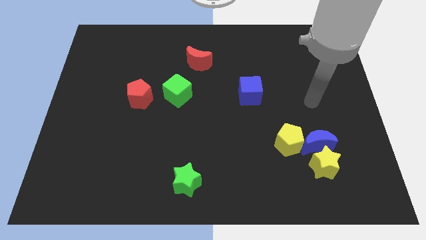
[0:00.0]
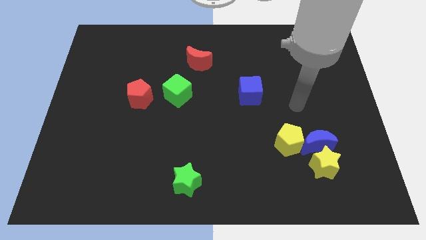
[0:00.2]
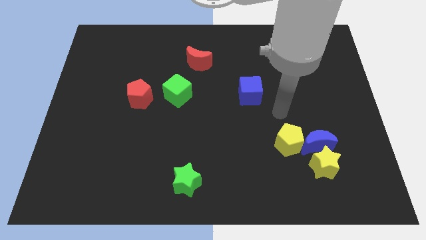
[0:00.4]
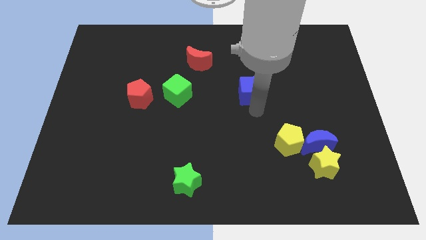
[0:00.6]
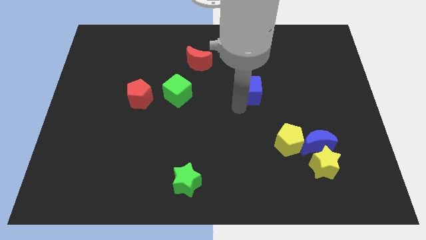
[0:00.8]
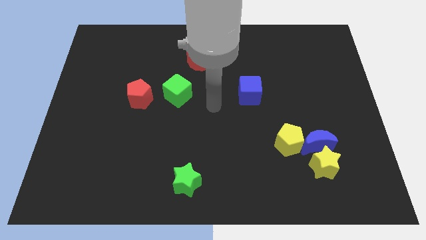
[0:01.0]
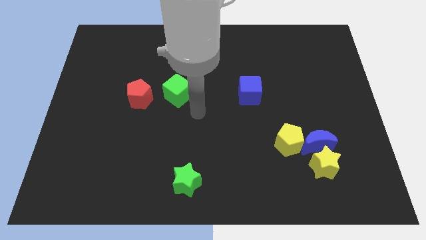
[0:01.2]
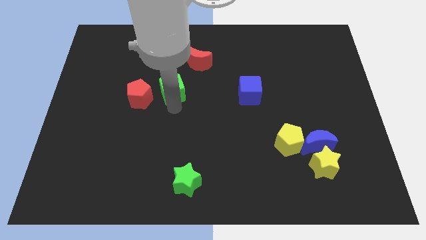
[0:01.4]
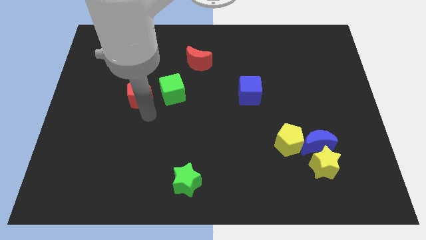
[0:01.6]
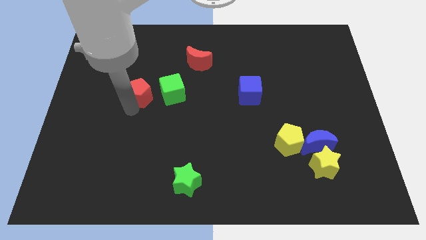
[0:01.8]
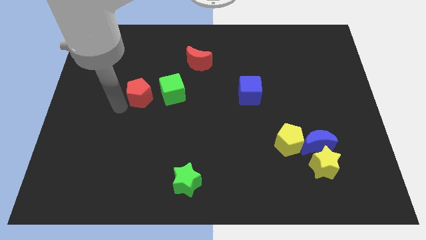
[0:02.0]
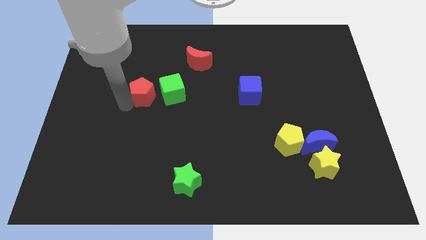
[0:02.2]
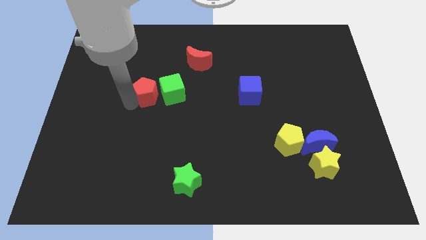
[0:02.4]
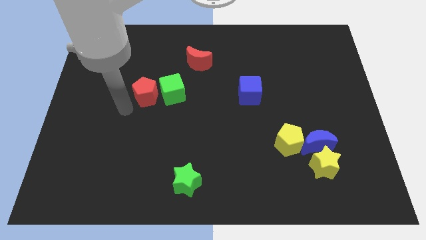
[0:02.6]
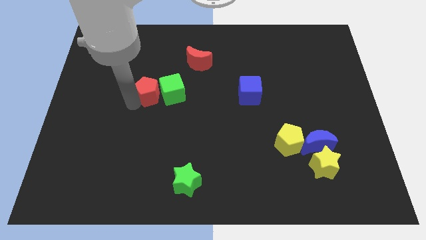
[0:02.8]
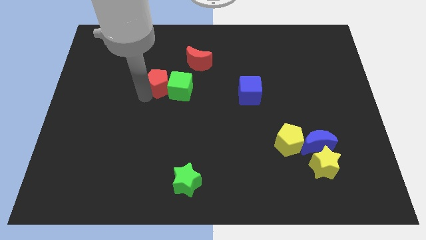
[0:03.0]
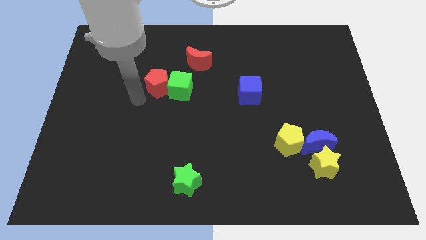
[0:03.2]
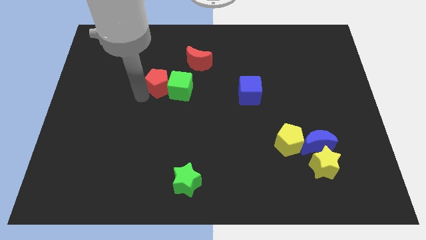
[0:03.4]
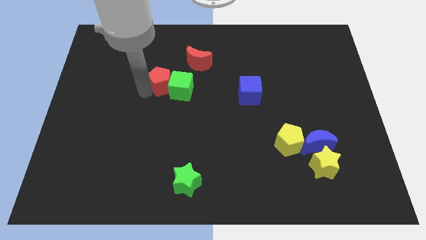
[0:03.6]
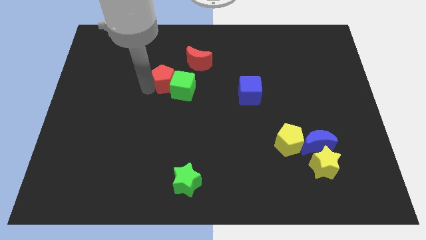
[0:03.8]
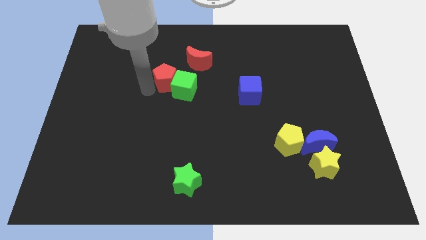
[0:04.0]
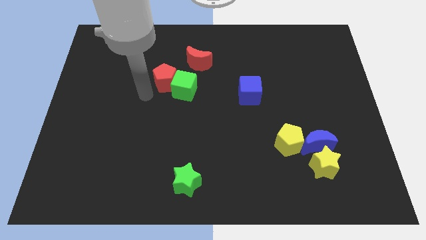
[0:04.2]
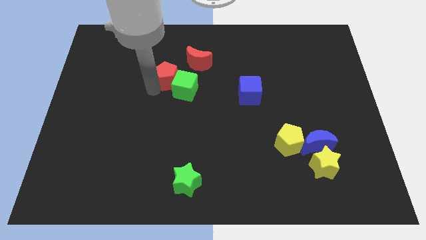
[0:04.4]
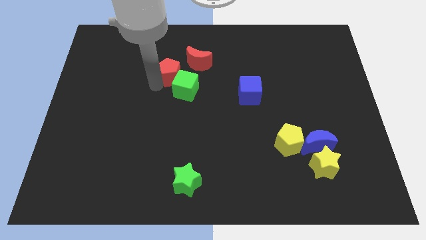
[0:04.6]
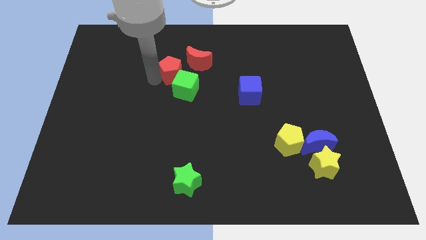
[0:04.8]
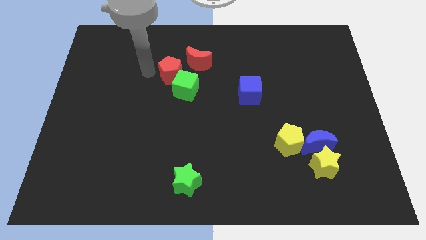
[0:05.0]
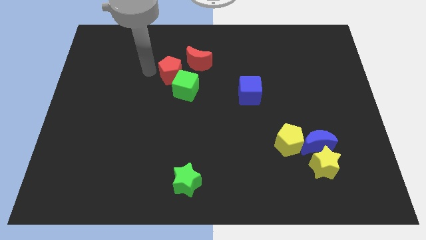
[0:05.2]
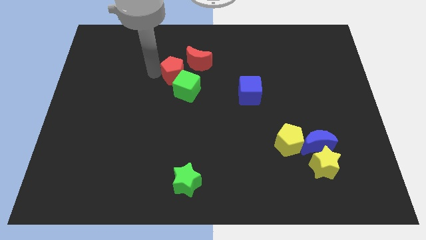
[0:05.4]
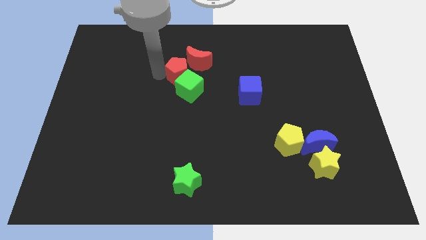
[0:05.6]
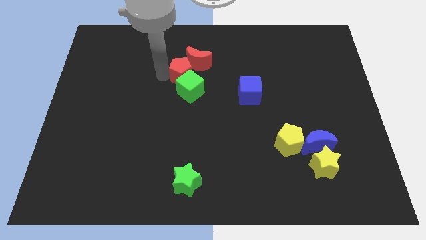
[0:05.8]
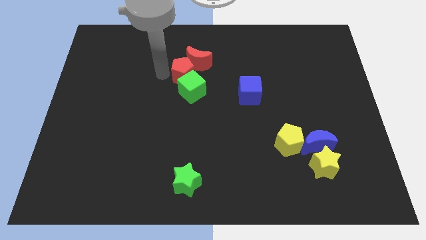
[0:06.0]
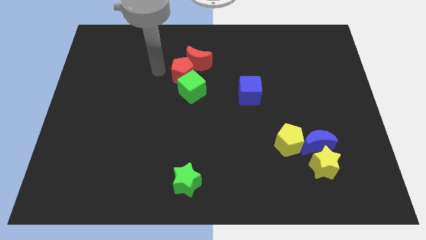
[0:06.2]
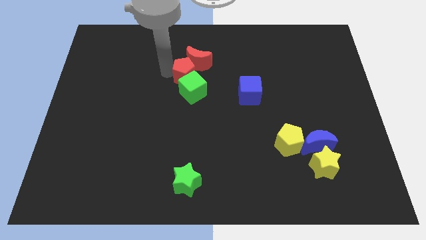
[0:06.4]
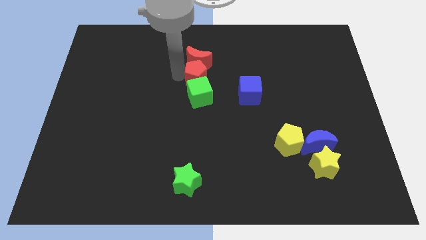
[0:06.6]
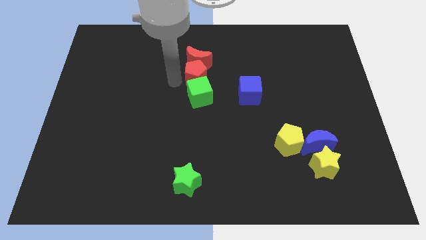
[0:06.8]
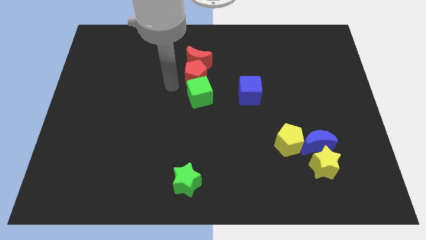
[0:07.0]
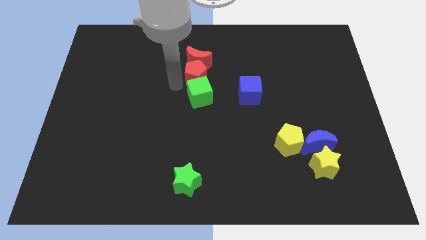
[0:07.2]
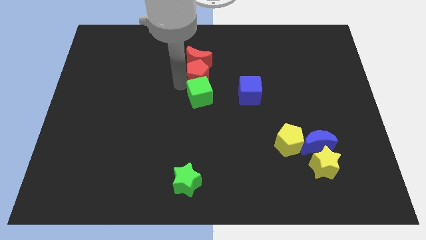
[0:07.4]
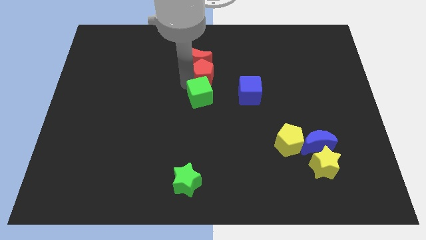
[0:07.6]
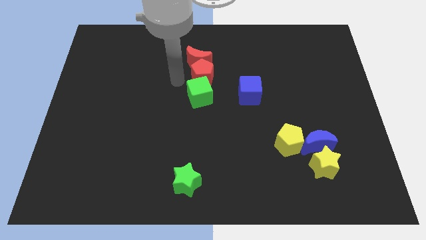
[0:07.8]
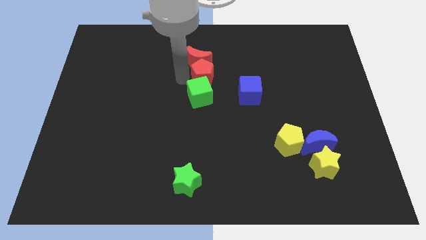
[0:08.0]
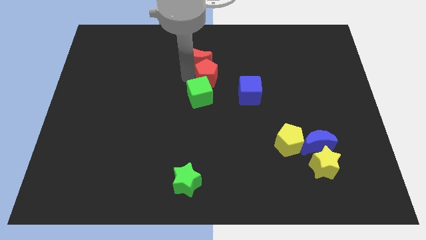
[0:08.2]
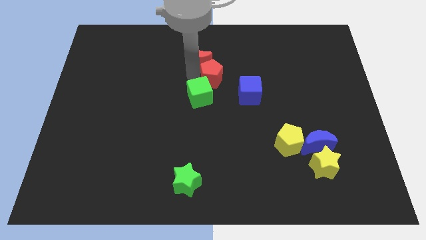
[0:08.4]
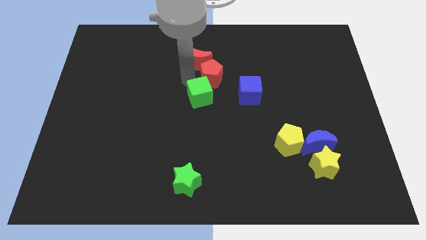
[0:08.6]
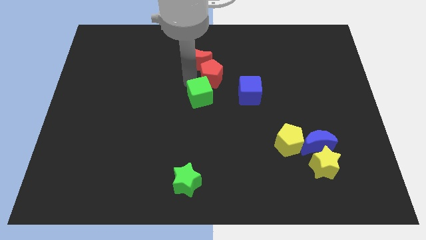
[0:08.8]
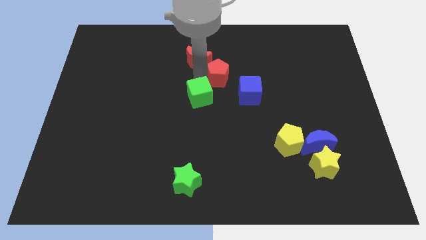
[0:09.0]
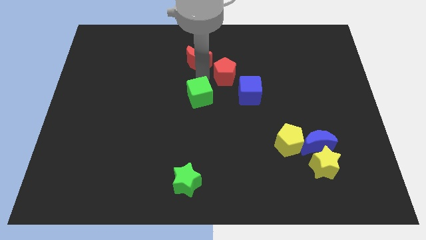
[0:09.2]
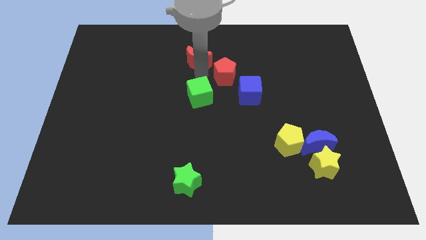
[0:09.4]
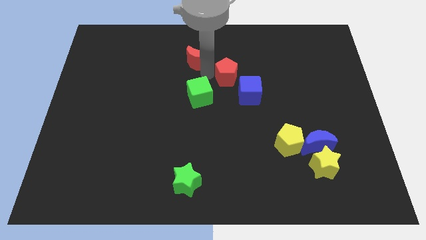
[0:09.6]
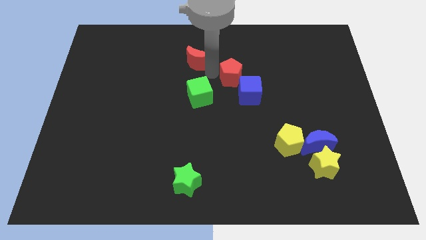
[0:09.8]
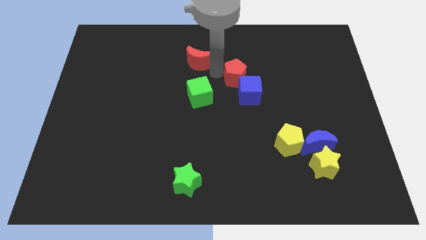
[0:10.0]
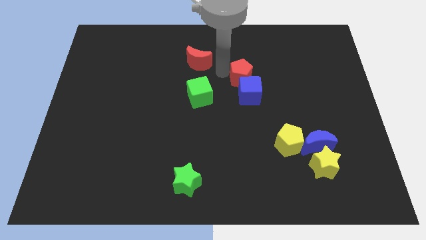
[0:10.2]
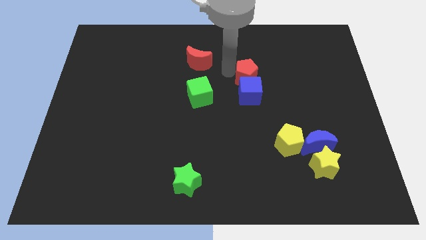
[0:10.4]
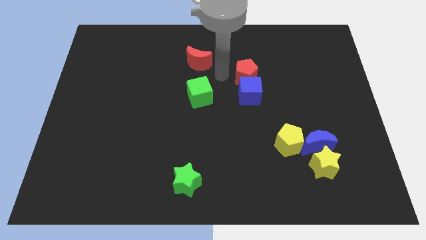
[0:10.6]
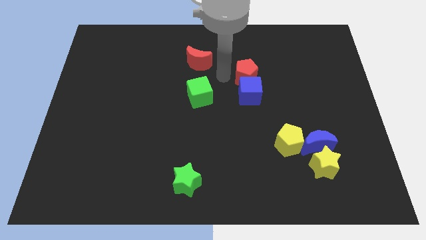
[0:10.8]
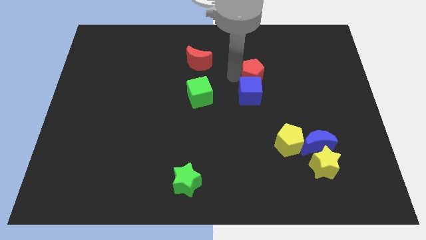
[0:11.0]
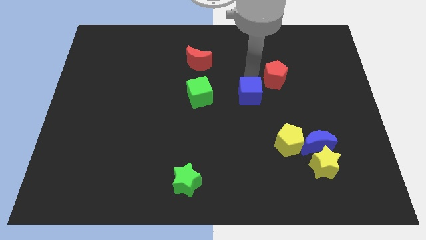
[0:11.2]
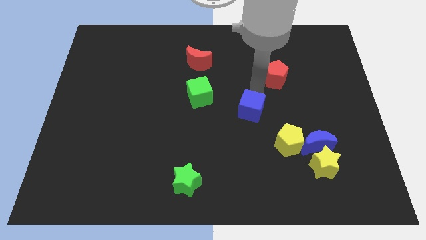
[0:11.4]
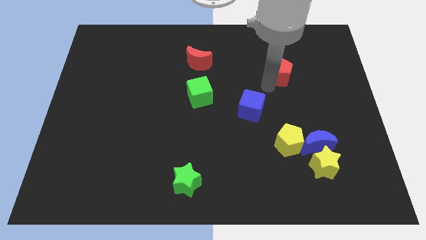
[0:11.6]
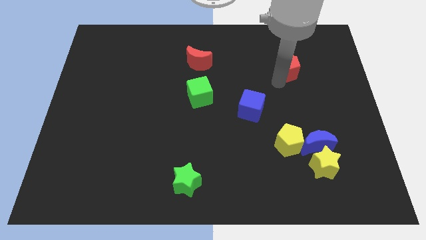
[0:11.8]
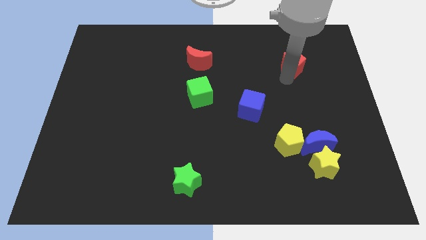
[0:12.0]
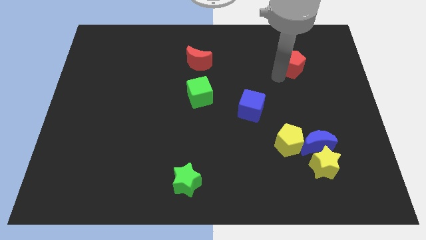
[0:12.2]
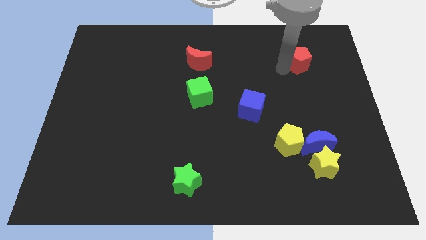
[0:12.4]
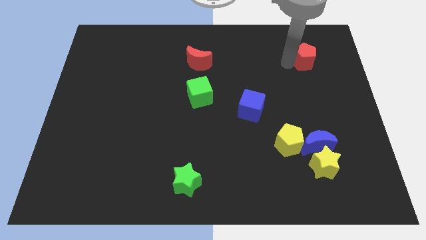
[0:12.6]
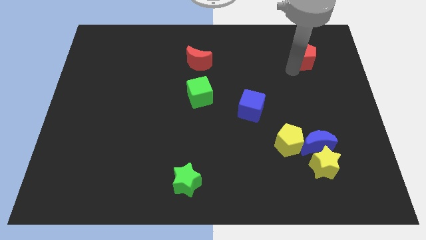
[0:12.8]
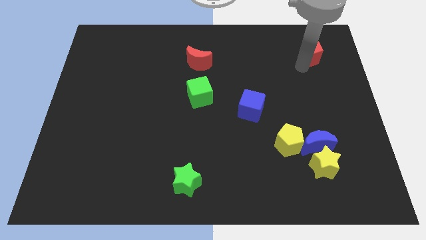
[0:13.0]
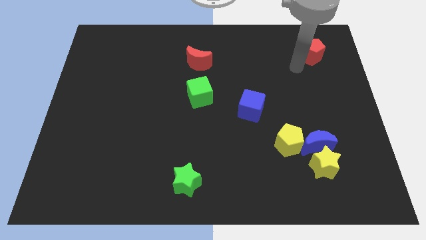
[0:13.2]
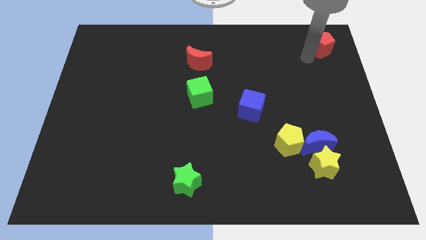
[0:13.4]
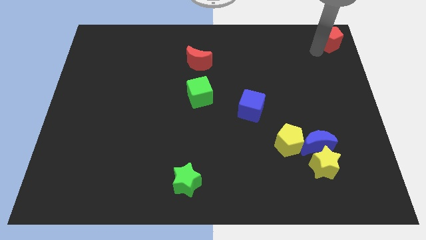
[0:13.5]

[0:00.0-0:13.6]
push the red pentagon to the top right corner

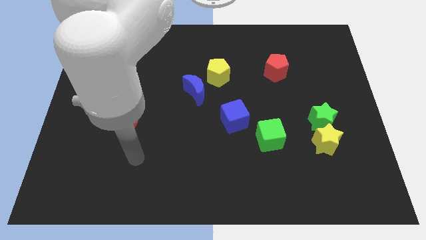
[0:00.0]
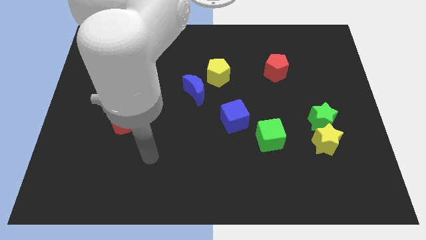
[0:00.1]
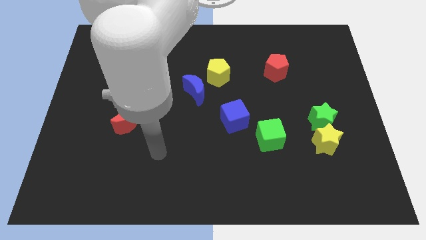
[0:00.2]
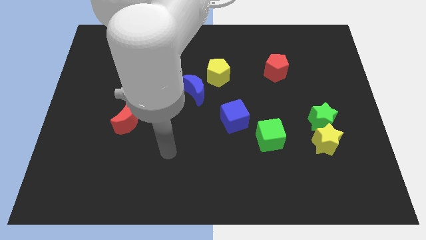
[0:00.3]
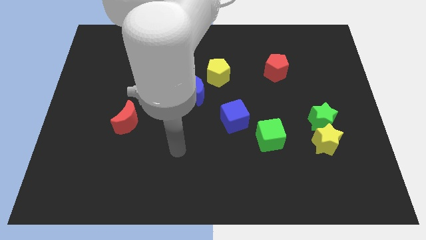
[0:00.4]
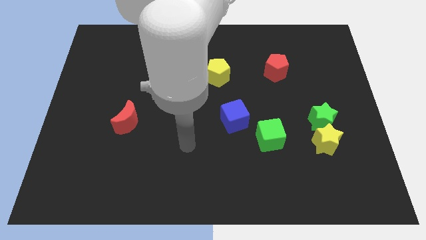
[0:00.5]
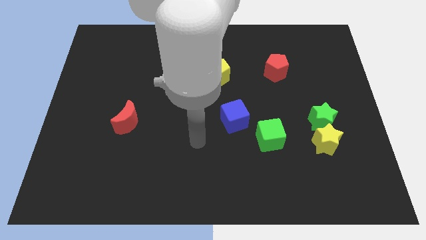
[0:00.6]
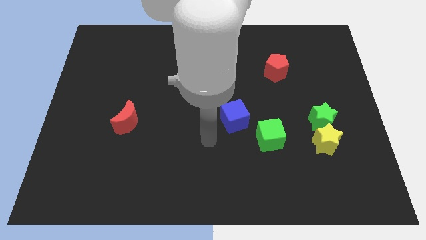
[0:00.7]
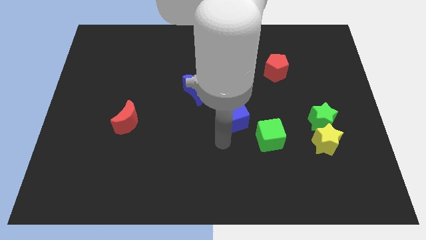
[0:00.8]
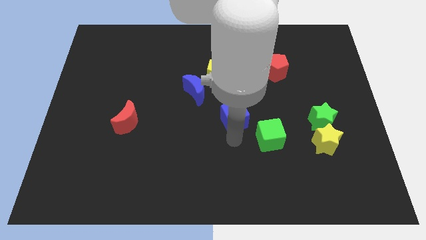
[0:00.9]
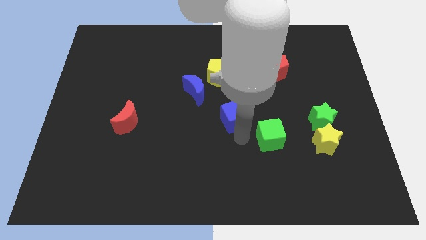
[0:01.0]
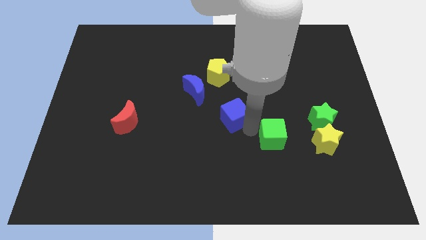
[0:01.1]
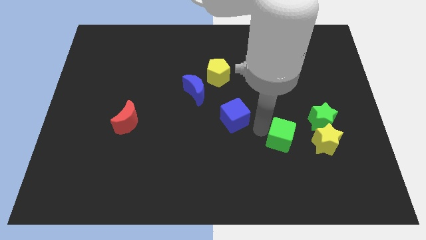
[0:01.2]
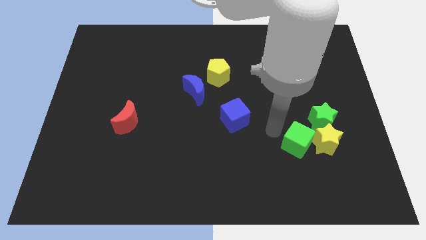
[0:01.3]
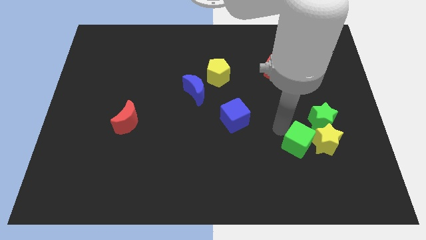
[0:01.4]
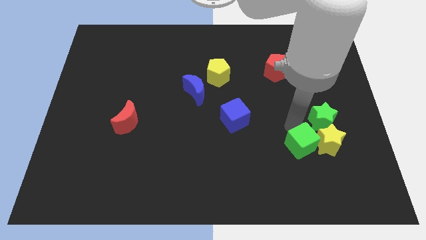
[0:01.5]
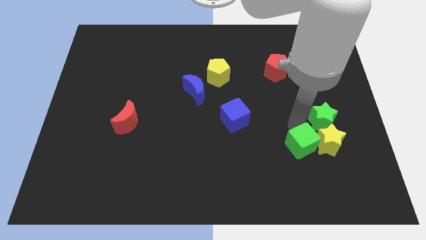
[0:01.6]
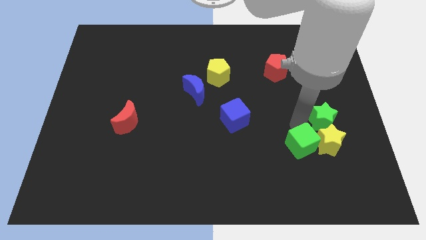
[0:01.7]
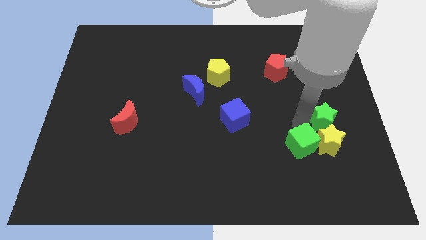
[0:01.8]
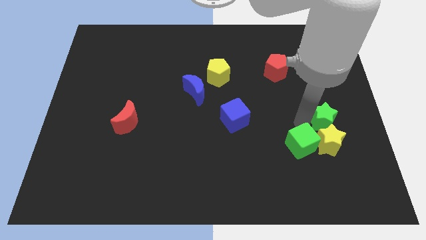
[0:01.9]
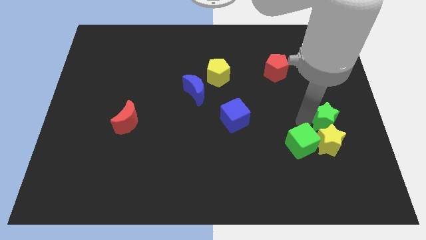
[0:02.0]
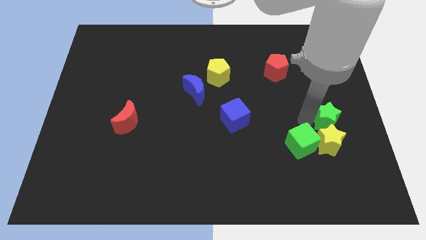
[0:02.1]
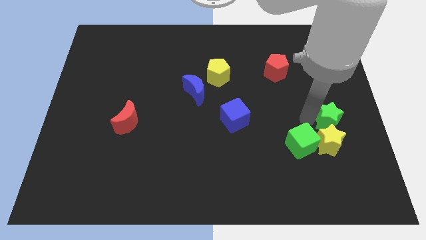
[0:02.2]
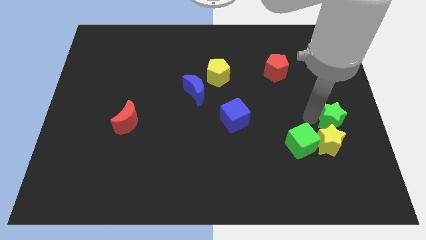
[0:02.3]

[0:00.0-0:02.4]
push the green star to the center right
